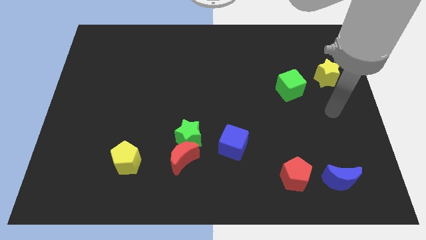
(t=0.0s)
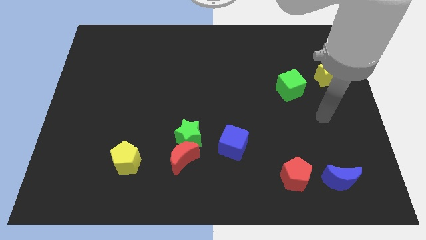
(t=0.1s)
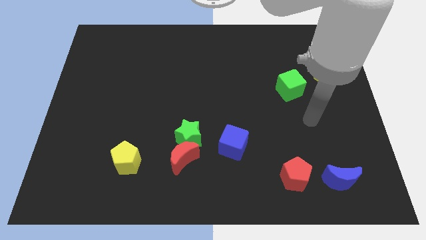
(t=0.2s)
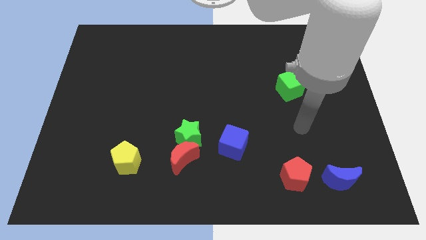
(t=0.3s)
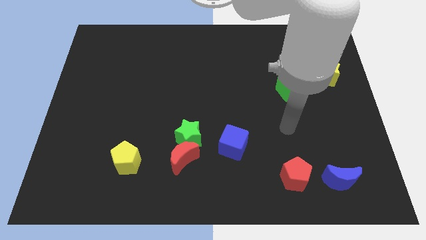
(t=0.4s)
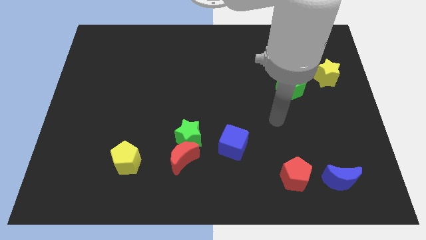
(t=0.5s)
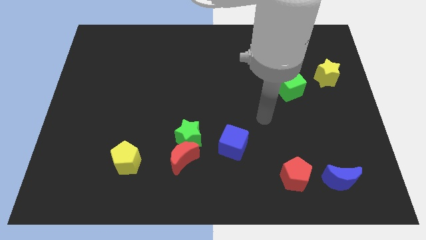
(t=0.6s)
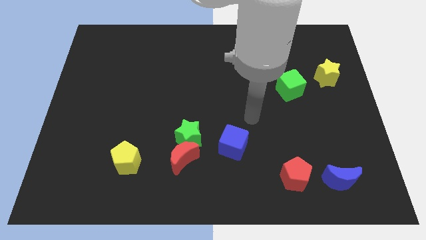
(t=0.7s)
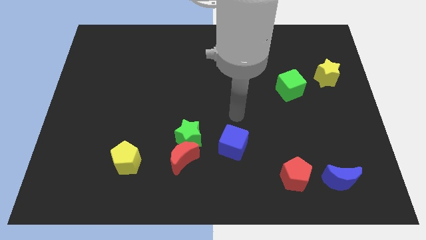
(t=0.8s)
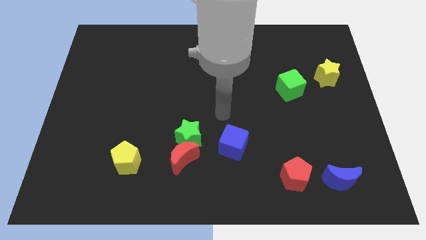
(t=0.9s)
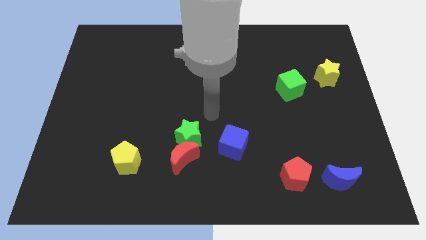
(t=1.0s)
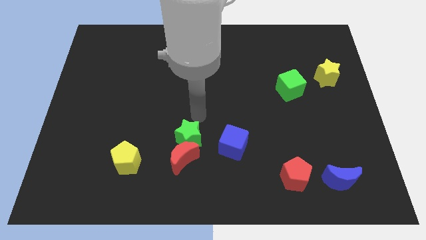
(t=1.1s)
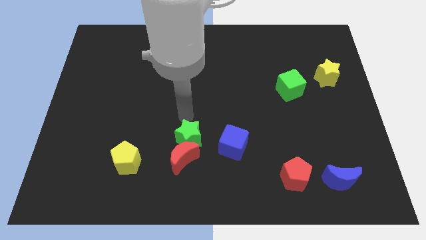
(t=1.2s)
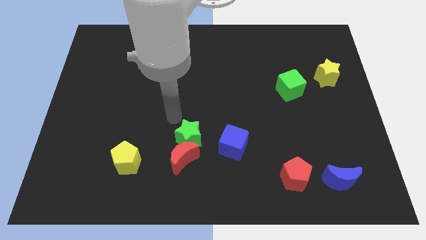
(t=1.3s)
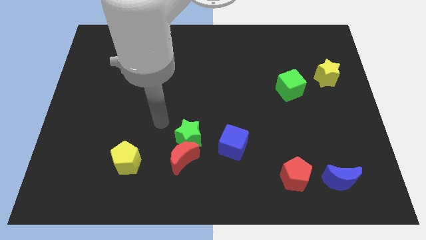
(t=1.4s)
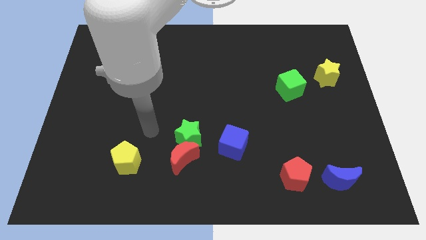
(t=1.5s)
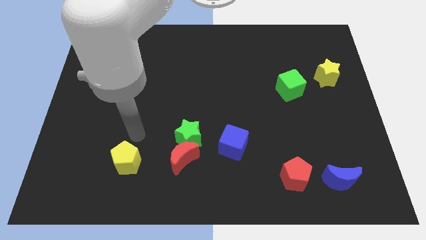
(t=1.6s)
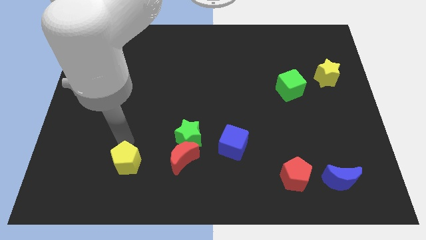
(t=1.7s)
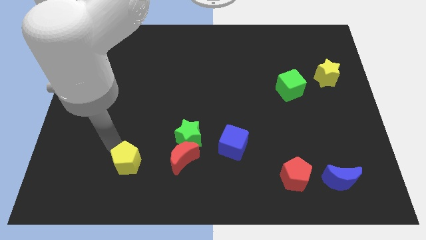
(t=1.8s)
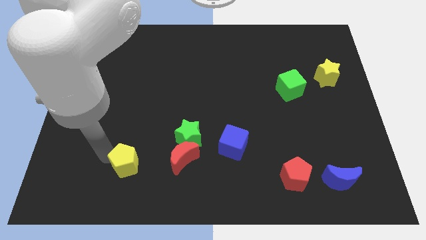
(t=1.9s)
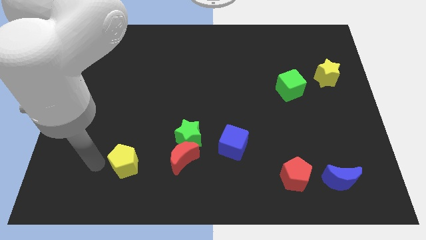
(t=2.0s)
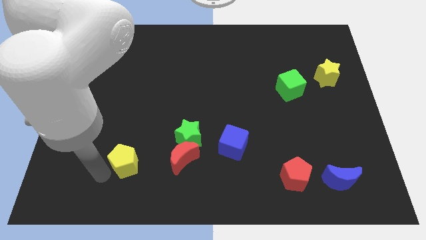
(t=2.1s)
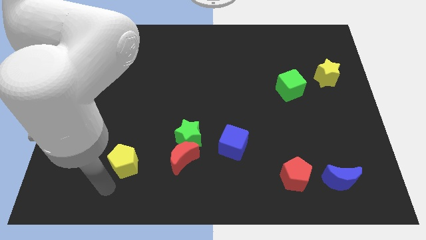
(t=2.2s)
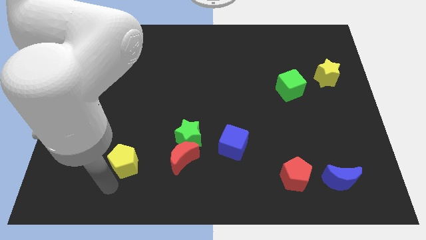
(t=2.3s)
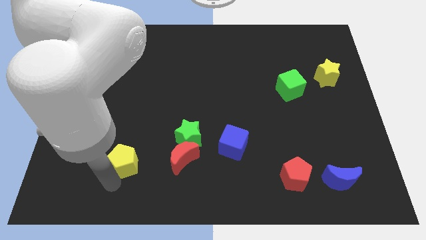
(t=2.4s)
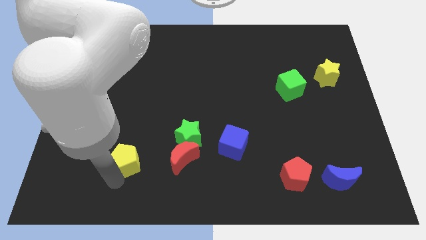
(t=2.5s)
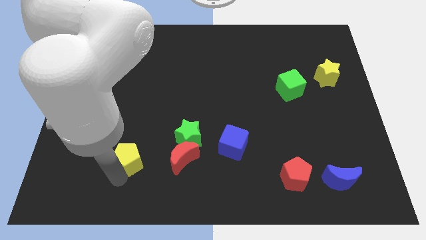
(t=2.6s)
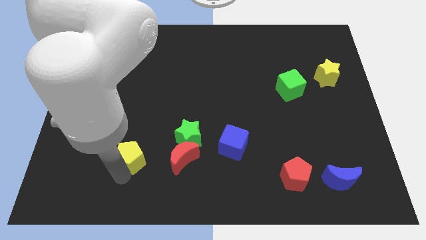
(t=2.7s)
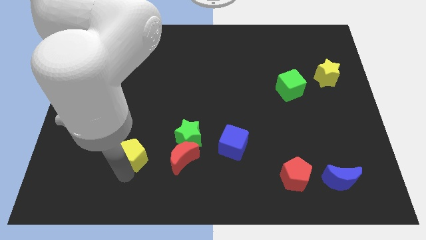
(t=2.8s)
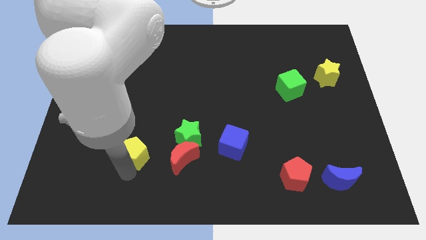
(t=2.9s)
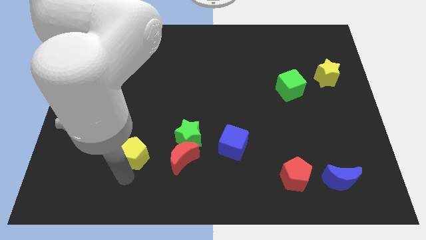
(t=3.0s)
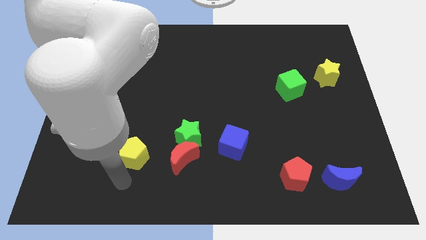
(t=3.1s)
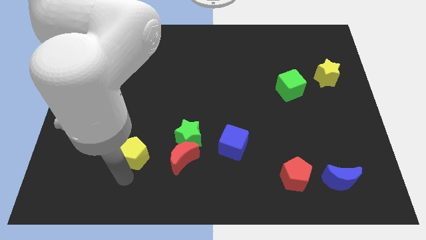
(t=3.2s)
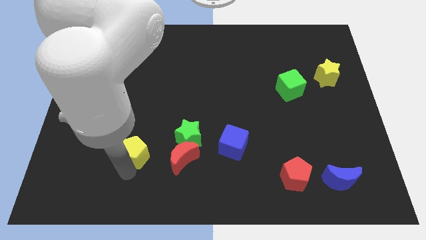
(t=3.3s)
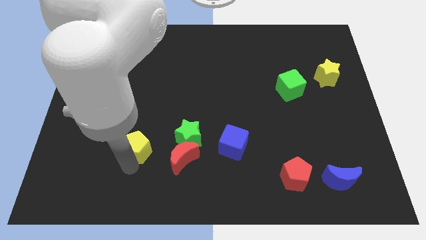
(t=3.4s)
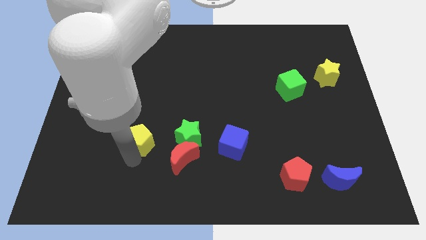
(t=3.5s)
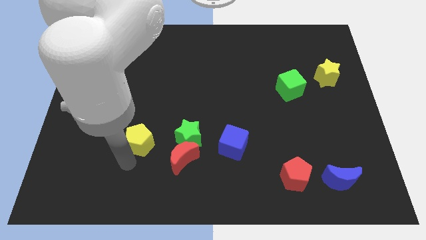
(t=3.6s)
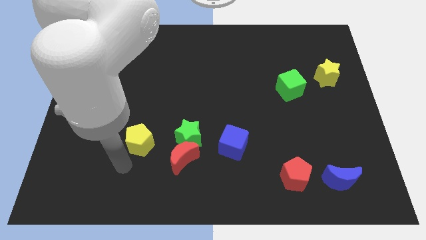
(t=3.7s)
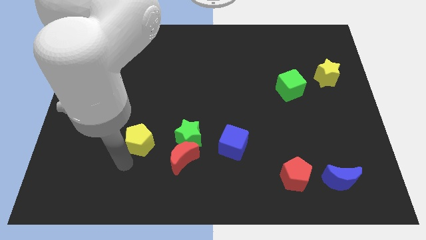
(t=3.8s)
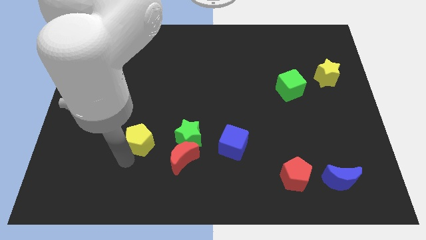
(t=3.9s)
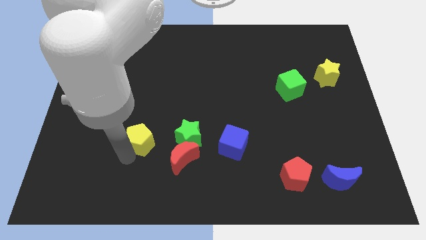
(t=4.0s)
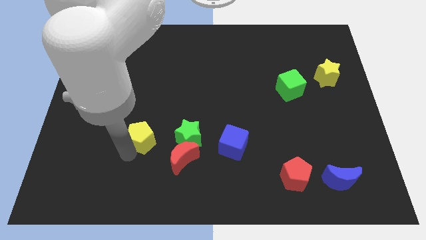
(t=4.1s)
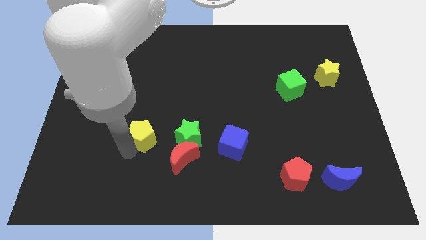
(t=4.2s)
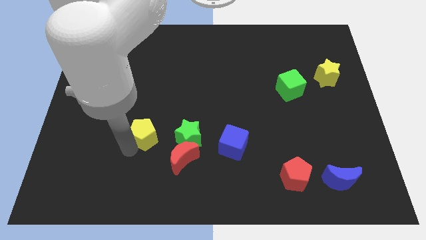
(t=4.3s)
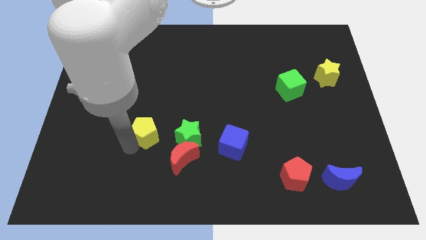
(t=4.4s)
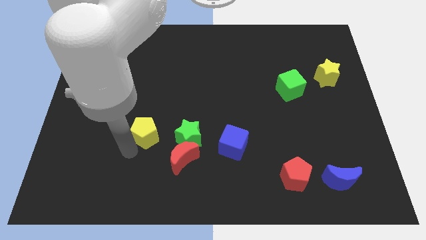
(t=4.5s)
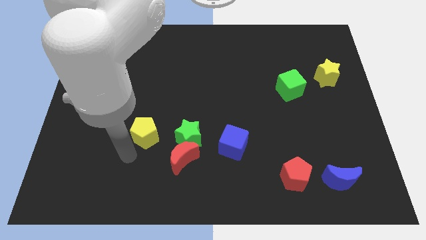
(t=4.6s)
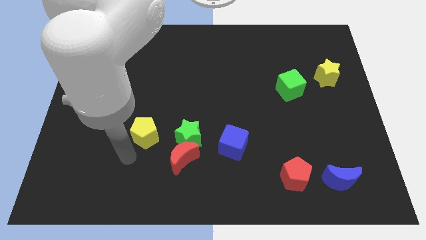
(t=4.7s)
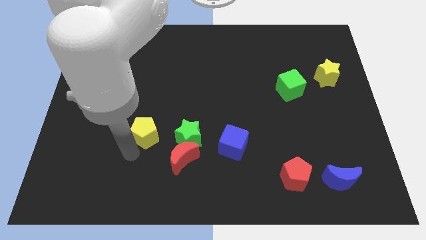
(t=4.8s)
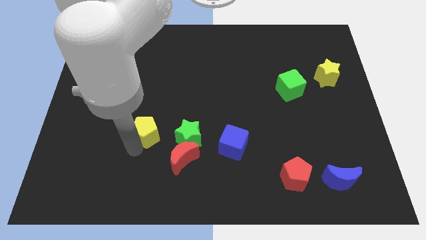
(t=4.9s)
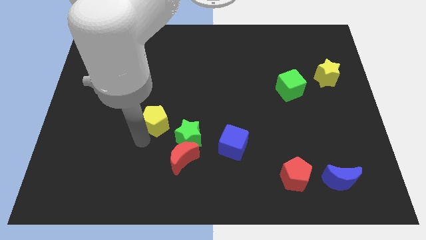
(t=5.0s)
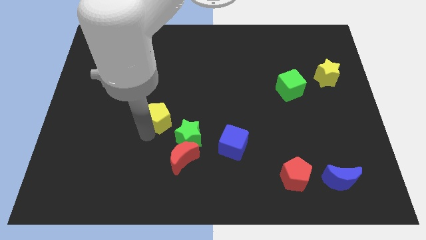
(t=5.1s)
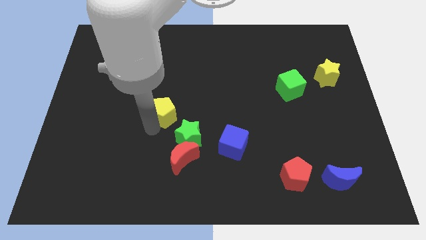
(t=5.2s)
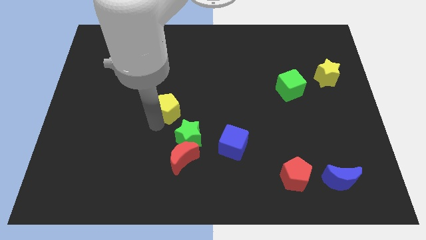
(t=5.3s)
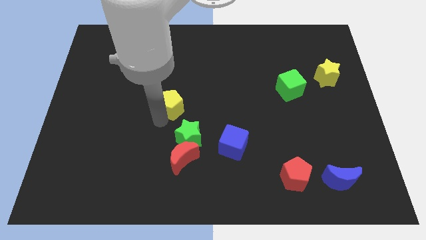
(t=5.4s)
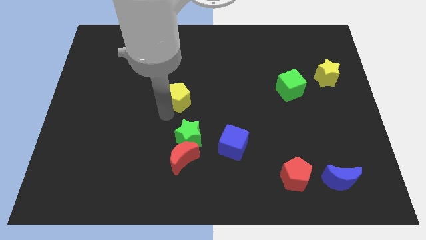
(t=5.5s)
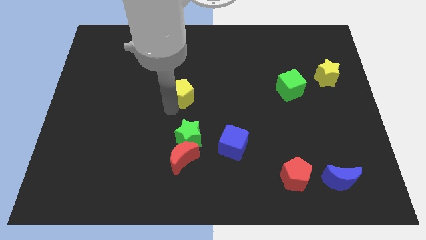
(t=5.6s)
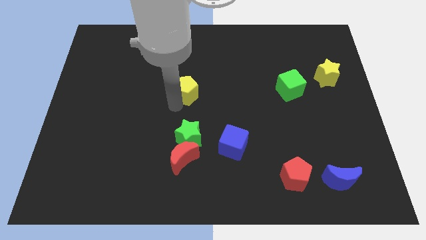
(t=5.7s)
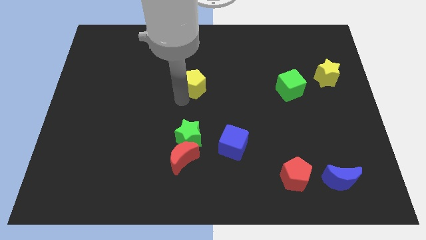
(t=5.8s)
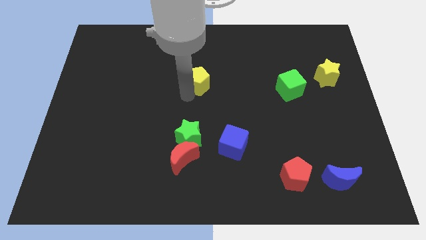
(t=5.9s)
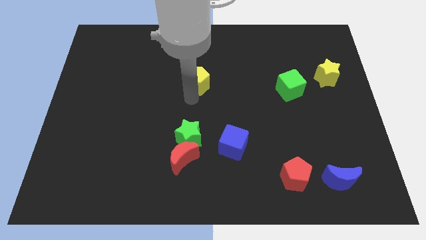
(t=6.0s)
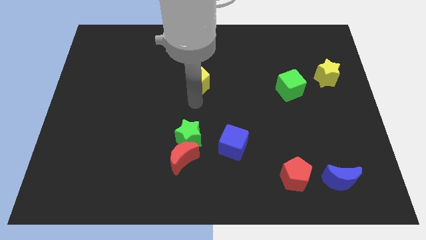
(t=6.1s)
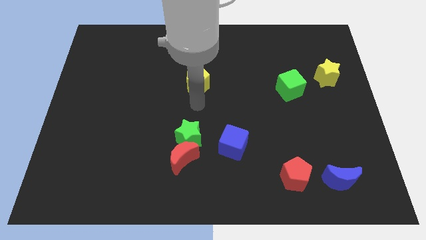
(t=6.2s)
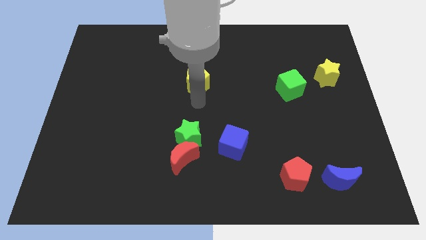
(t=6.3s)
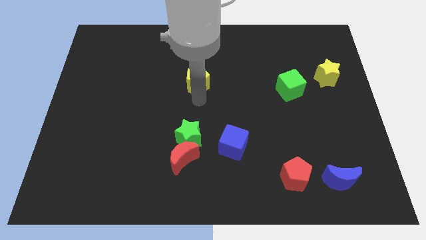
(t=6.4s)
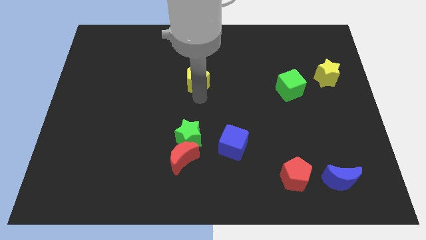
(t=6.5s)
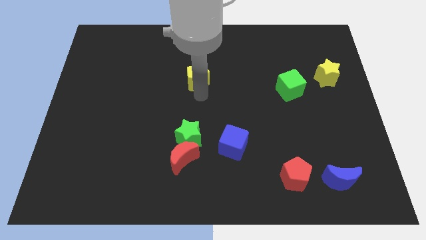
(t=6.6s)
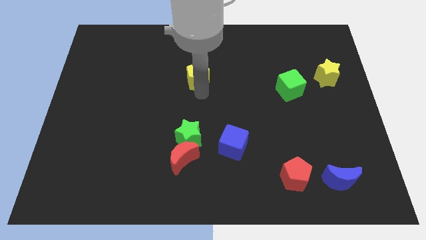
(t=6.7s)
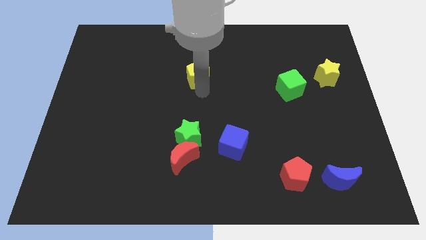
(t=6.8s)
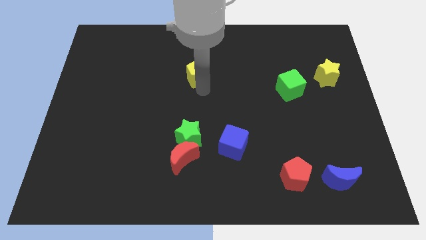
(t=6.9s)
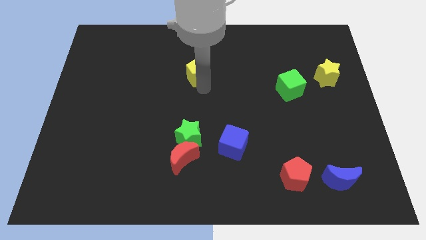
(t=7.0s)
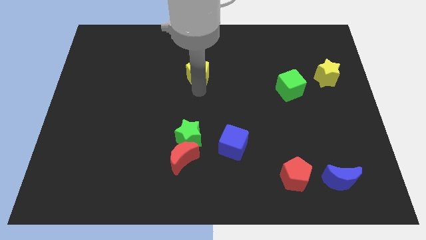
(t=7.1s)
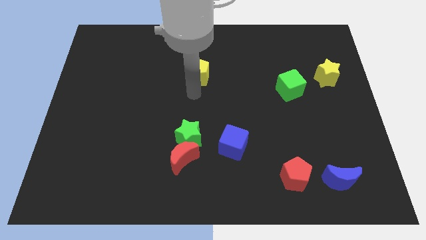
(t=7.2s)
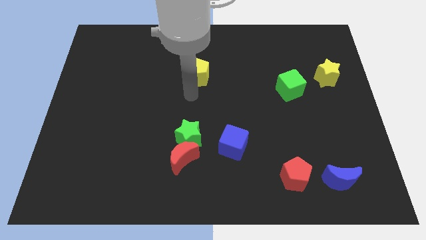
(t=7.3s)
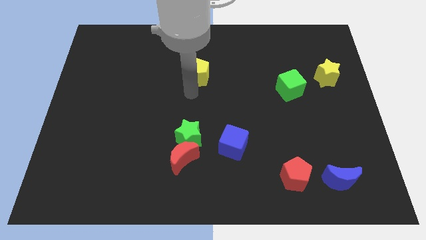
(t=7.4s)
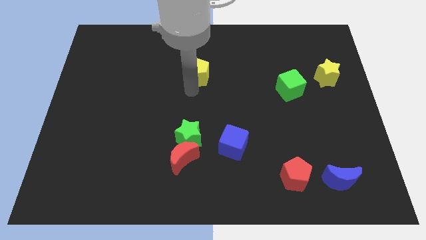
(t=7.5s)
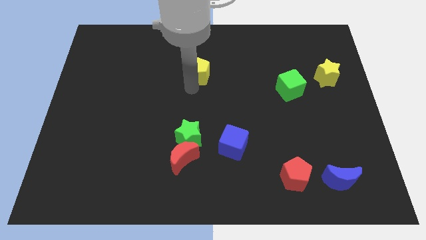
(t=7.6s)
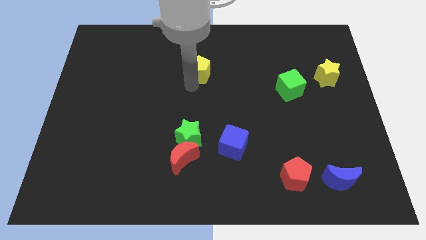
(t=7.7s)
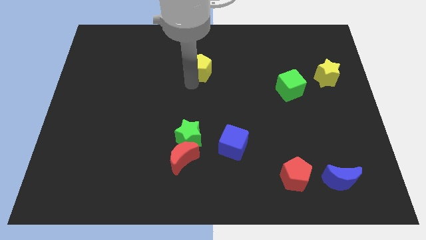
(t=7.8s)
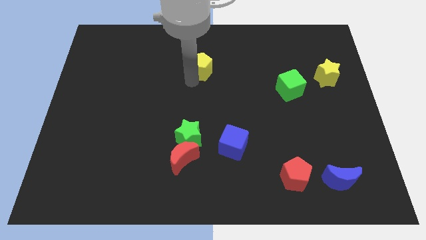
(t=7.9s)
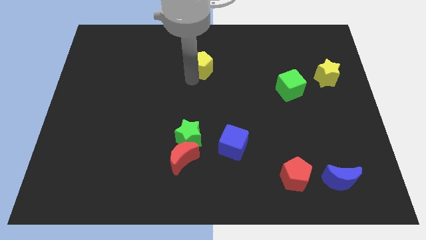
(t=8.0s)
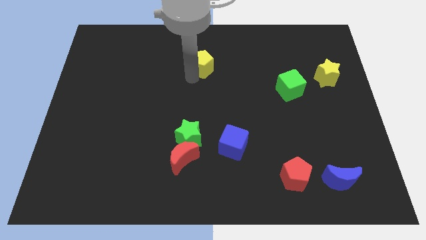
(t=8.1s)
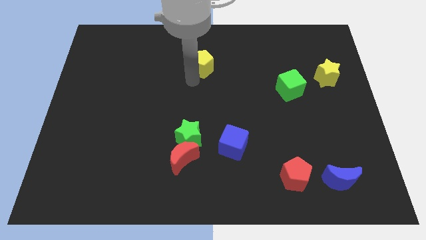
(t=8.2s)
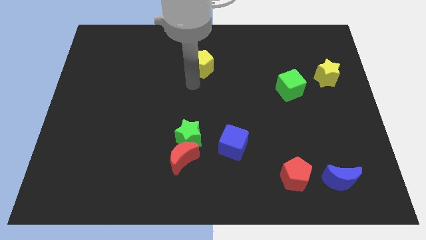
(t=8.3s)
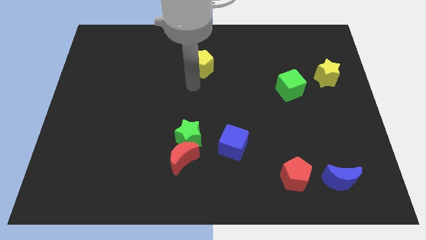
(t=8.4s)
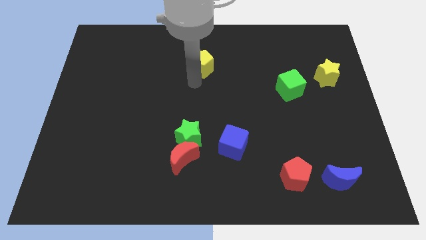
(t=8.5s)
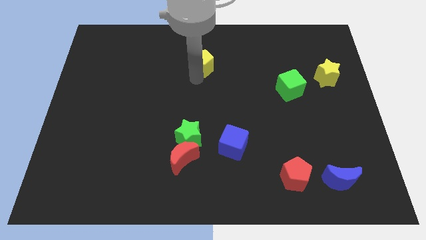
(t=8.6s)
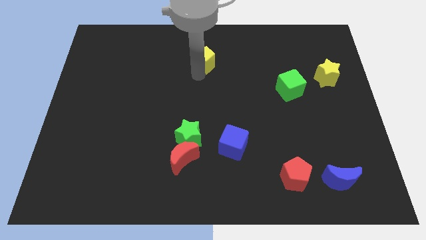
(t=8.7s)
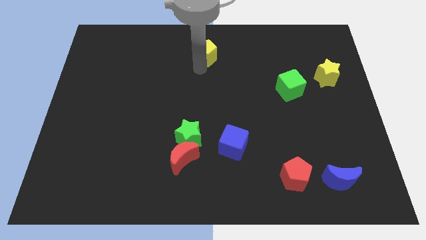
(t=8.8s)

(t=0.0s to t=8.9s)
move the yellow pentagon to the towards your base
